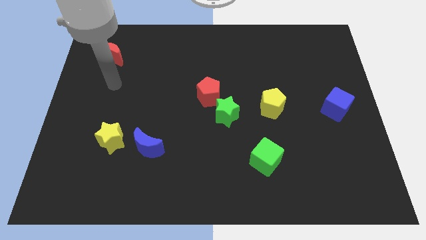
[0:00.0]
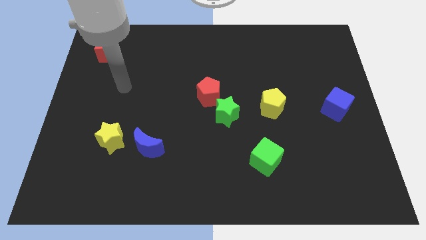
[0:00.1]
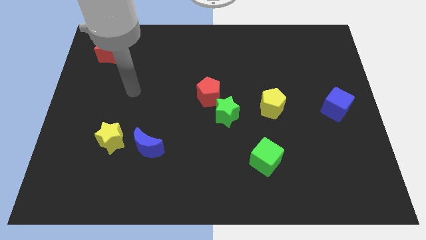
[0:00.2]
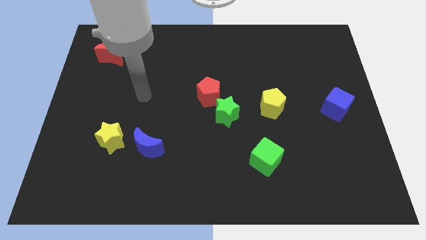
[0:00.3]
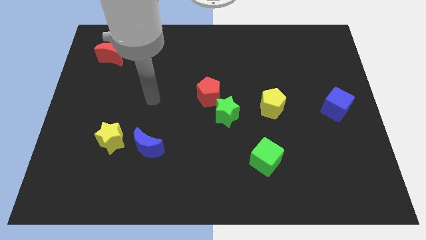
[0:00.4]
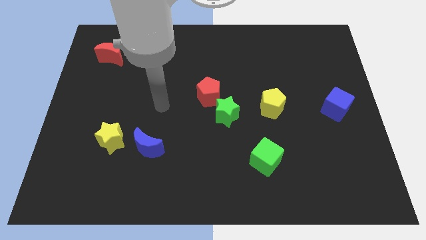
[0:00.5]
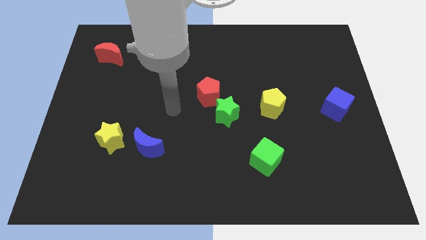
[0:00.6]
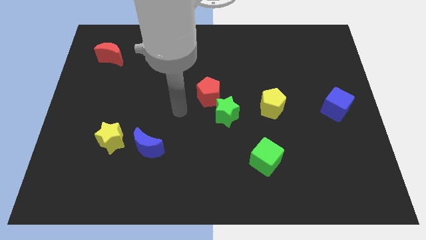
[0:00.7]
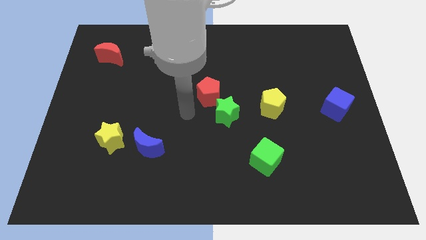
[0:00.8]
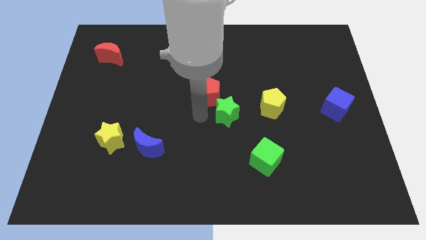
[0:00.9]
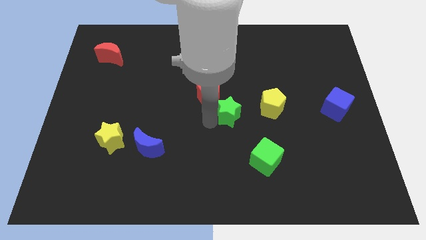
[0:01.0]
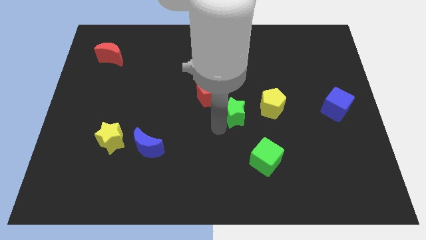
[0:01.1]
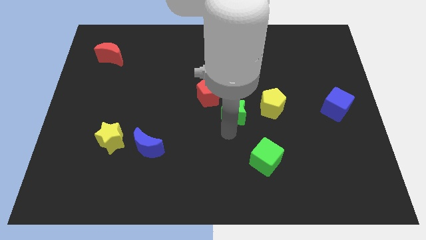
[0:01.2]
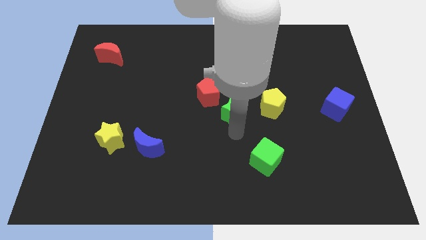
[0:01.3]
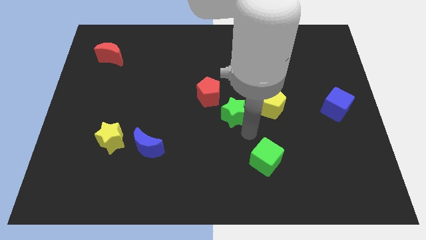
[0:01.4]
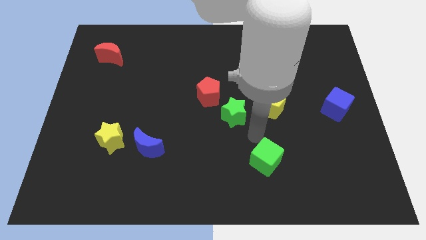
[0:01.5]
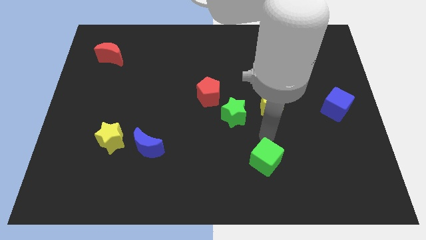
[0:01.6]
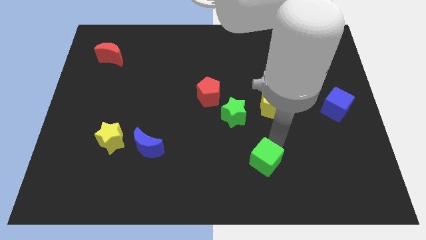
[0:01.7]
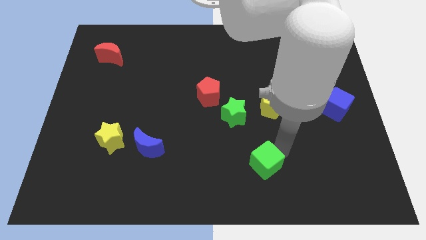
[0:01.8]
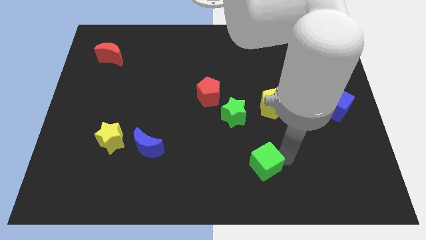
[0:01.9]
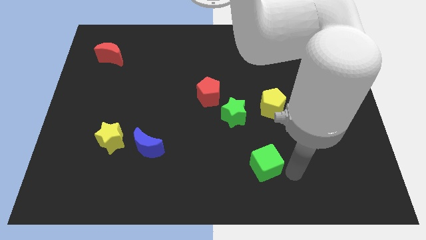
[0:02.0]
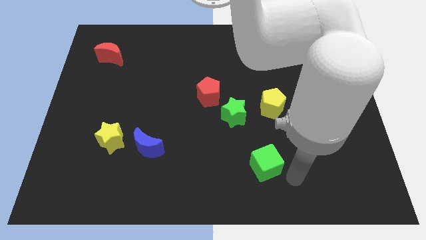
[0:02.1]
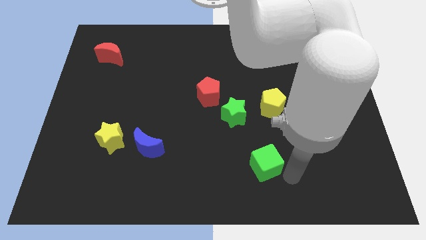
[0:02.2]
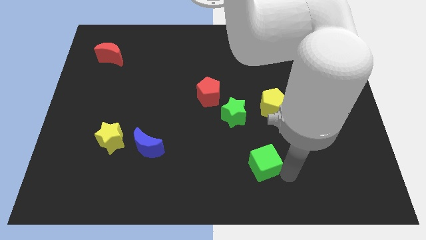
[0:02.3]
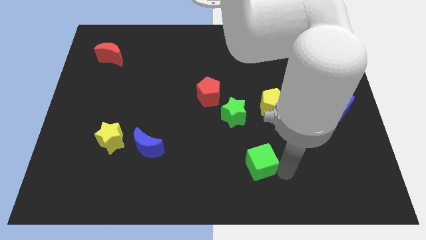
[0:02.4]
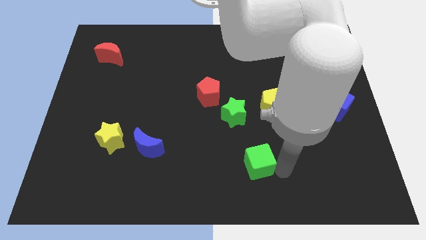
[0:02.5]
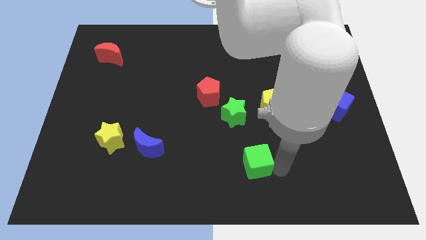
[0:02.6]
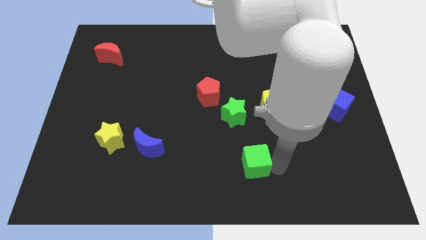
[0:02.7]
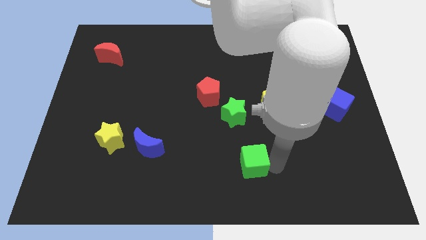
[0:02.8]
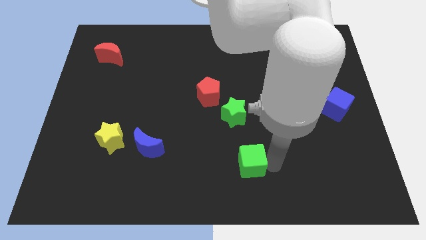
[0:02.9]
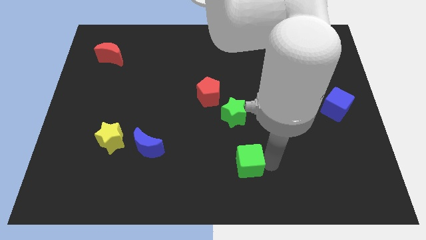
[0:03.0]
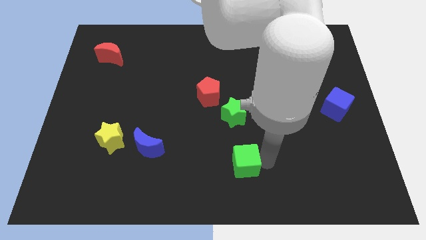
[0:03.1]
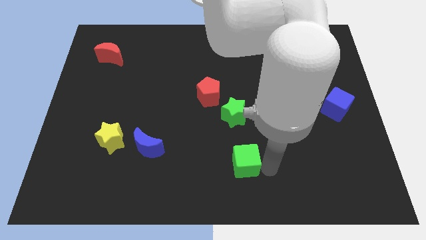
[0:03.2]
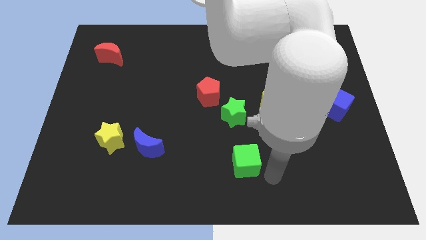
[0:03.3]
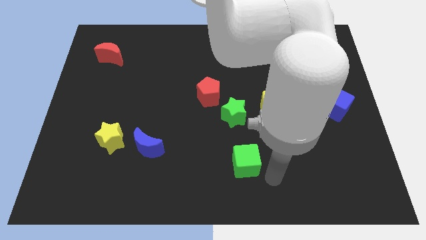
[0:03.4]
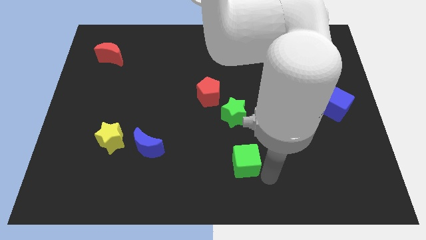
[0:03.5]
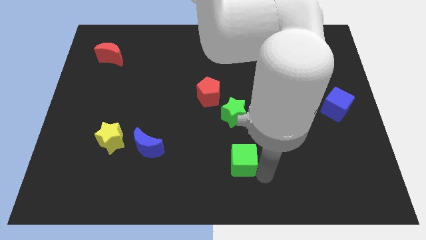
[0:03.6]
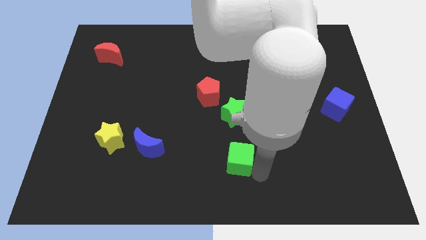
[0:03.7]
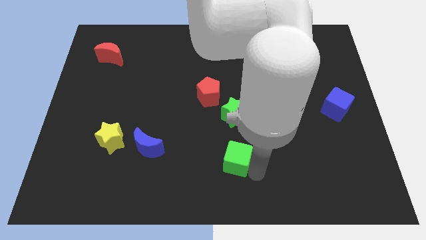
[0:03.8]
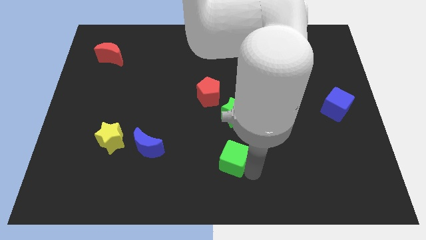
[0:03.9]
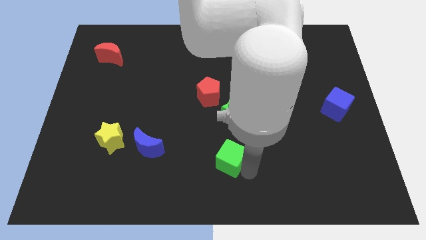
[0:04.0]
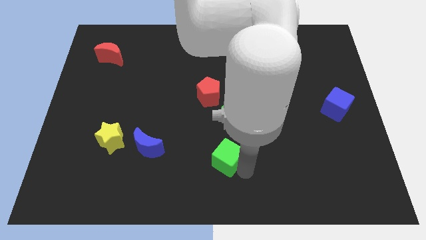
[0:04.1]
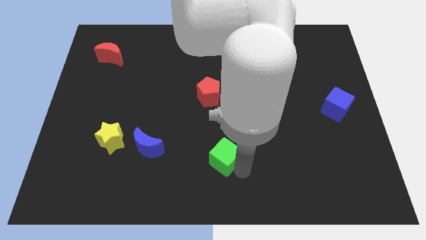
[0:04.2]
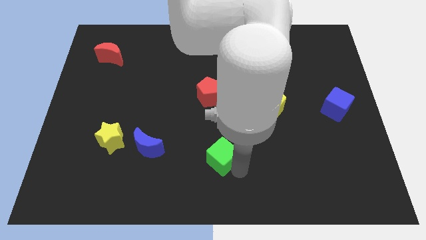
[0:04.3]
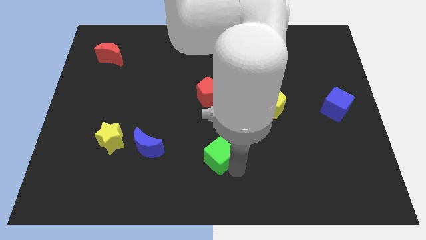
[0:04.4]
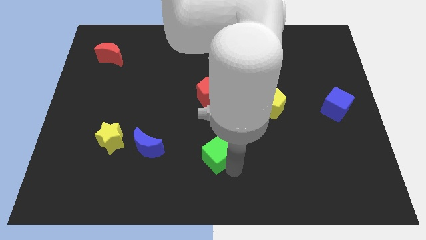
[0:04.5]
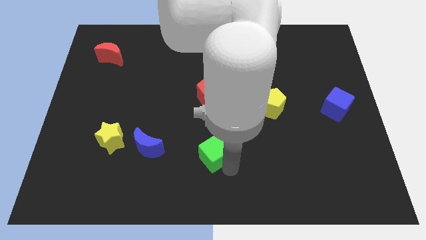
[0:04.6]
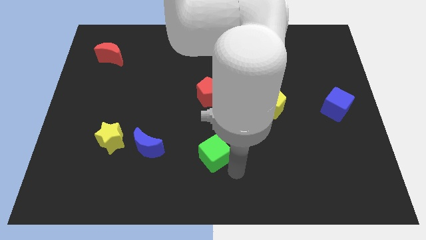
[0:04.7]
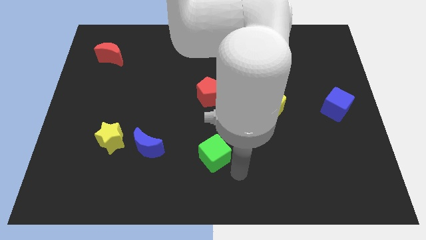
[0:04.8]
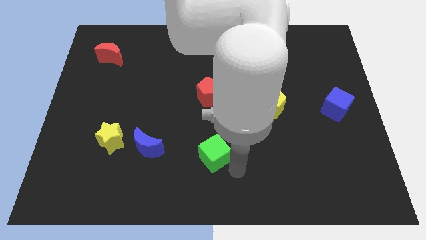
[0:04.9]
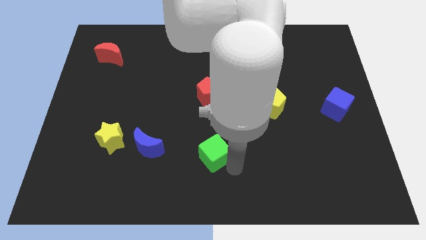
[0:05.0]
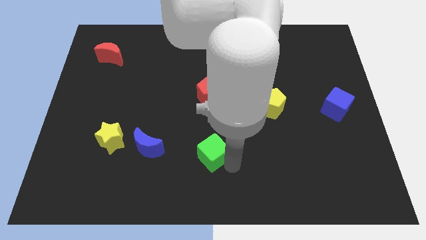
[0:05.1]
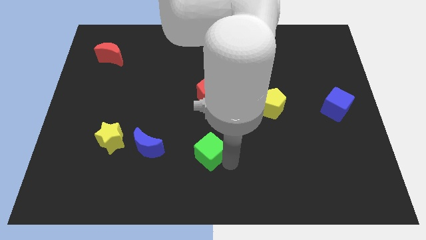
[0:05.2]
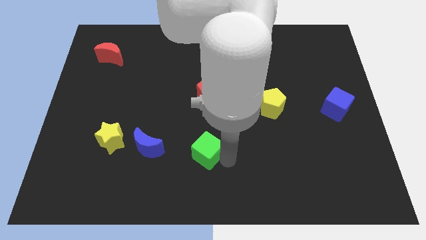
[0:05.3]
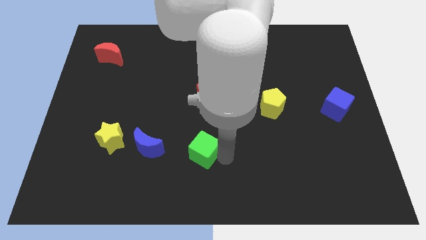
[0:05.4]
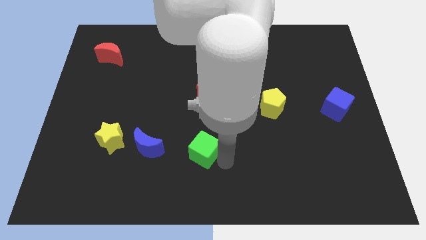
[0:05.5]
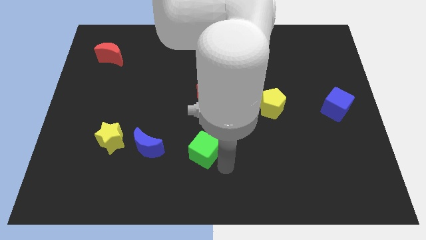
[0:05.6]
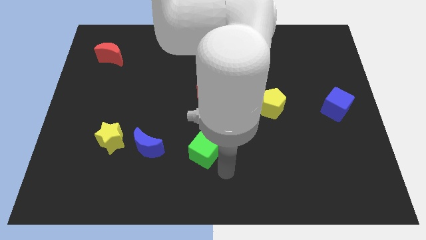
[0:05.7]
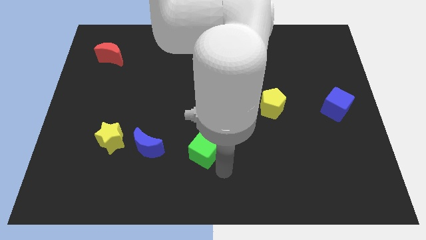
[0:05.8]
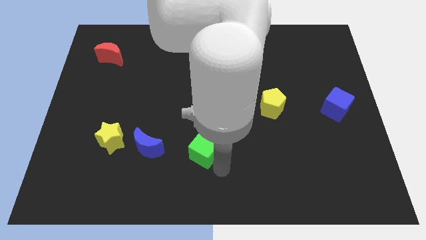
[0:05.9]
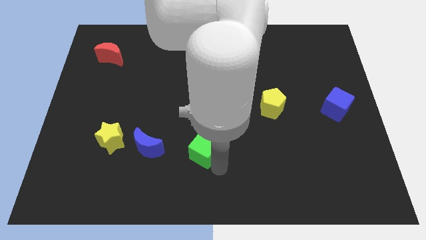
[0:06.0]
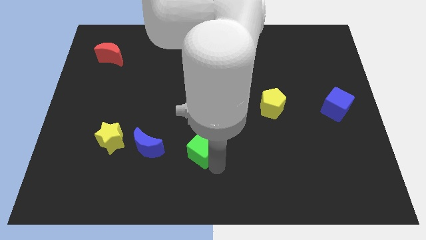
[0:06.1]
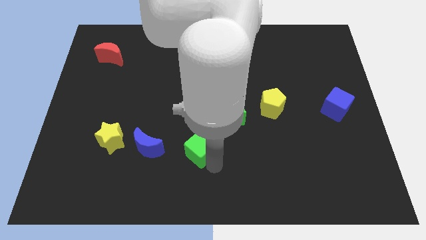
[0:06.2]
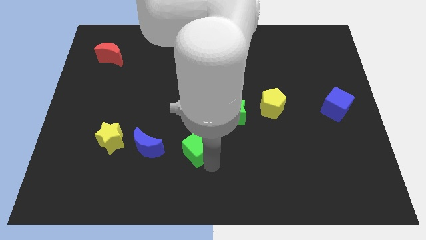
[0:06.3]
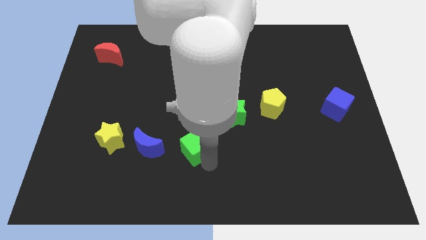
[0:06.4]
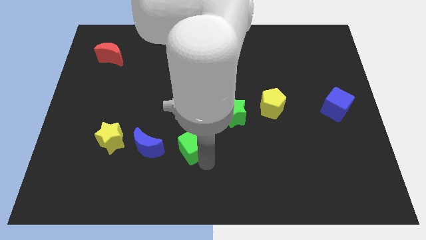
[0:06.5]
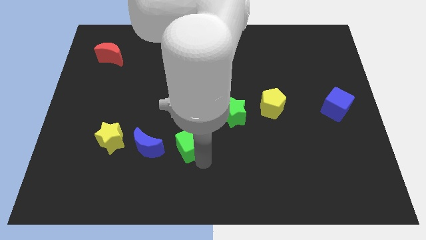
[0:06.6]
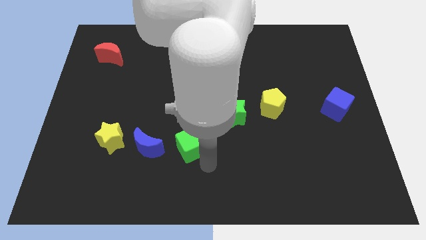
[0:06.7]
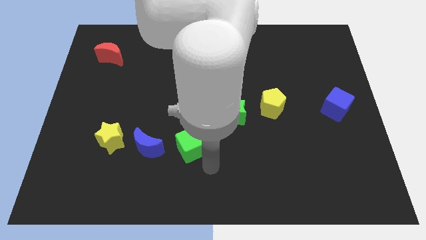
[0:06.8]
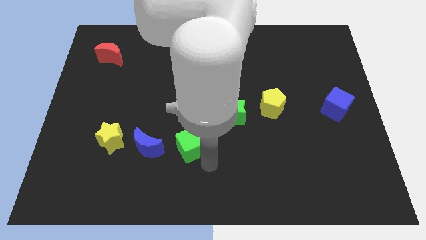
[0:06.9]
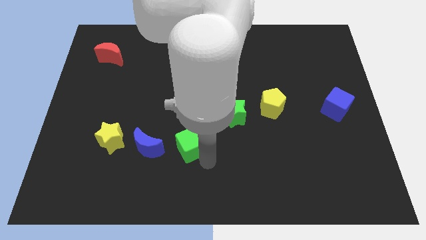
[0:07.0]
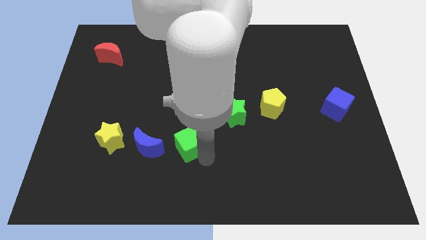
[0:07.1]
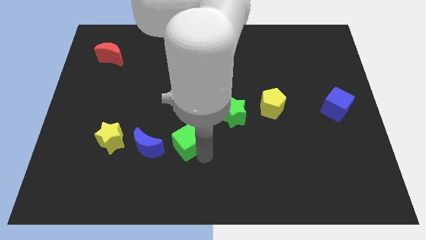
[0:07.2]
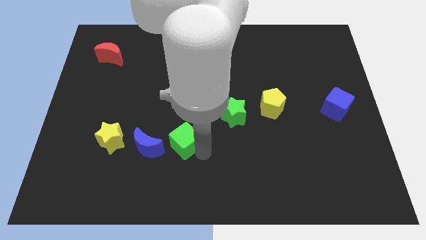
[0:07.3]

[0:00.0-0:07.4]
move the green cube to the top right of the blue moon

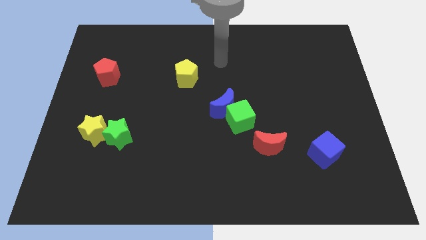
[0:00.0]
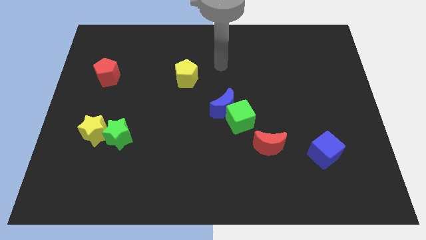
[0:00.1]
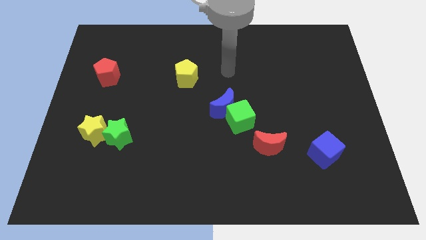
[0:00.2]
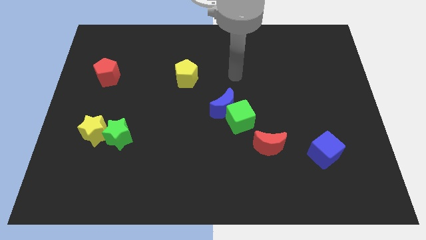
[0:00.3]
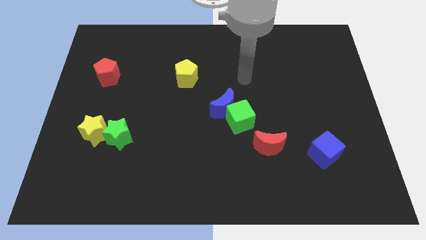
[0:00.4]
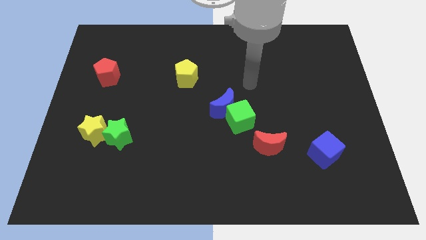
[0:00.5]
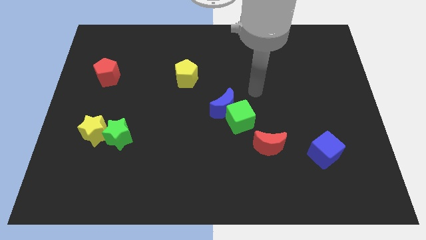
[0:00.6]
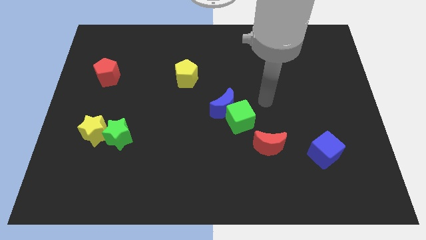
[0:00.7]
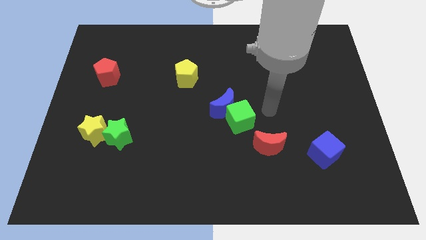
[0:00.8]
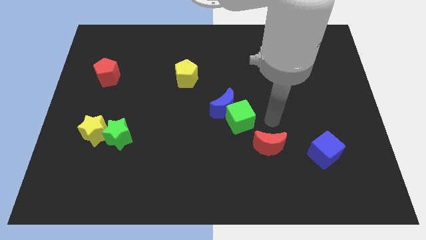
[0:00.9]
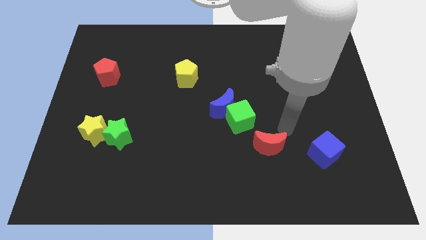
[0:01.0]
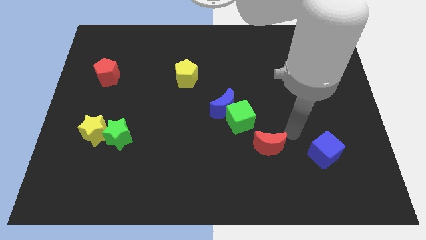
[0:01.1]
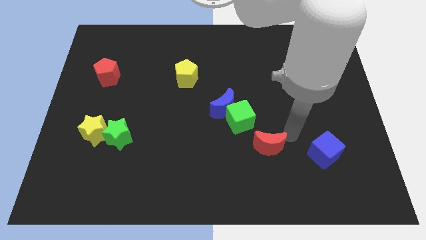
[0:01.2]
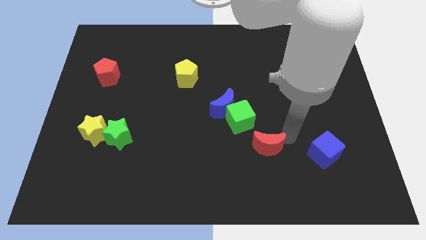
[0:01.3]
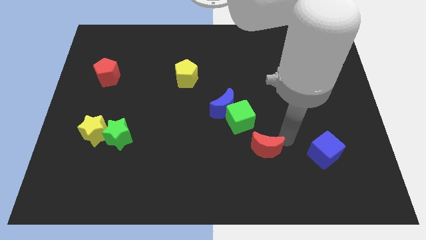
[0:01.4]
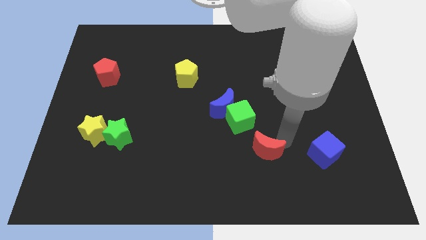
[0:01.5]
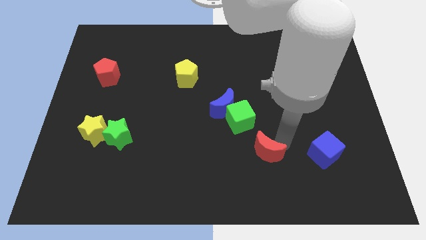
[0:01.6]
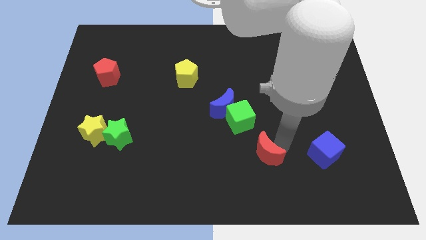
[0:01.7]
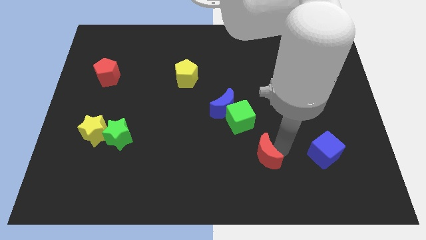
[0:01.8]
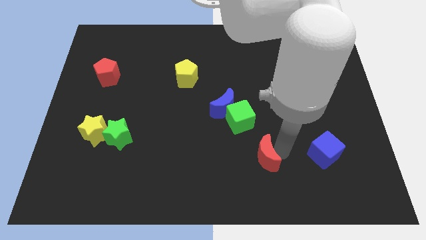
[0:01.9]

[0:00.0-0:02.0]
put the red moon to the bottom side of the green cube
